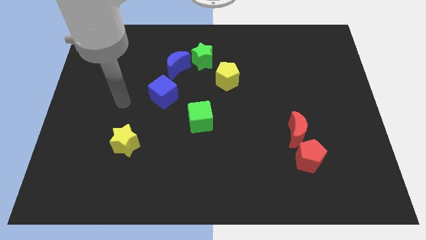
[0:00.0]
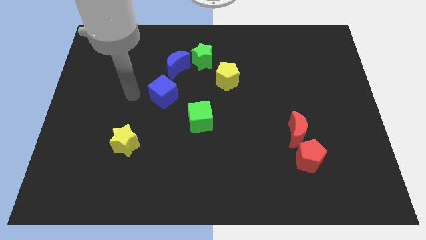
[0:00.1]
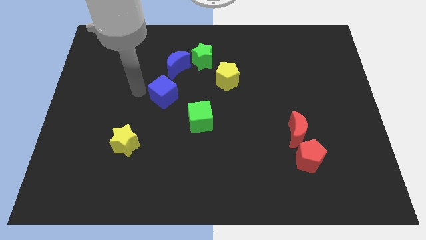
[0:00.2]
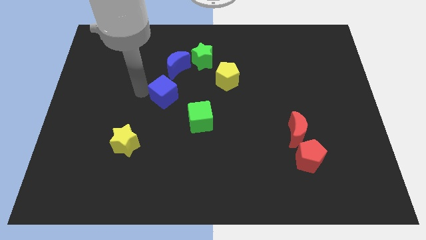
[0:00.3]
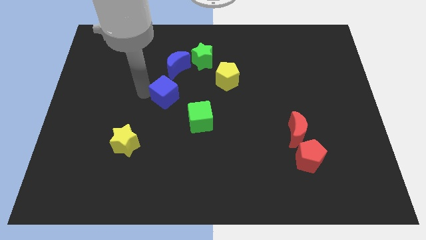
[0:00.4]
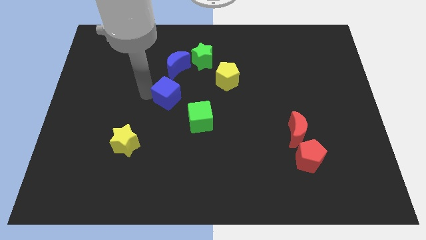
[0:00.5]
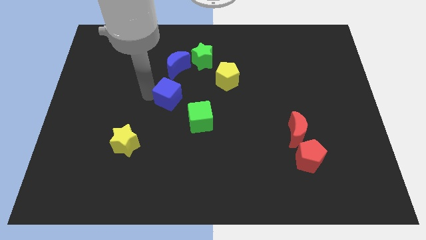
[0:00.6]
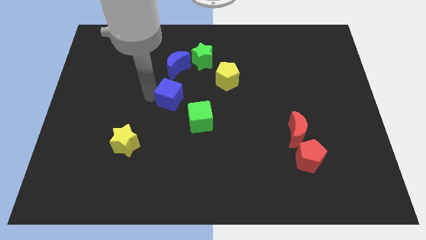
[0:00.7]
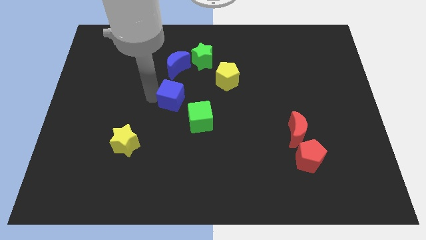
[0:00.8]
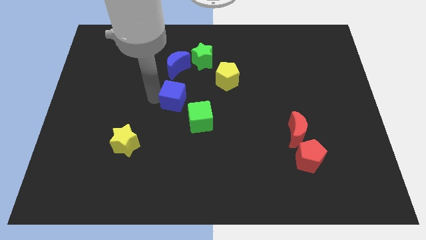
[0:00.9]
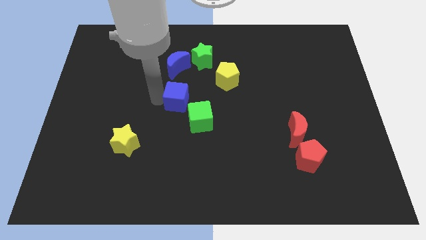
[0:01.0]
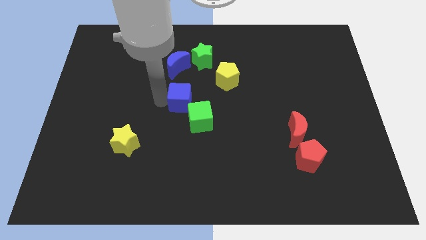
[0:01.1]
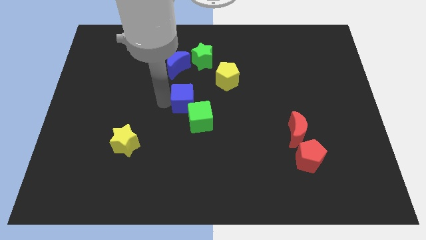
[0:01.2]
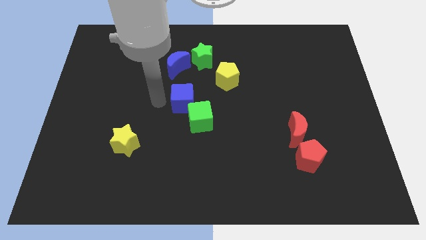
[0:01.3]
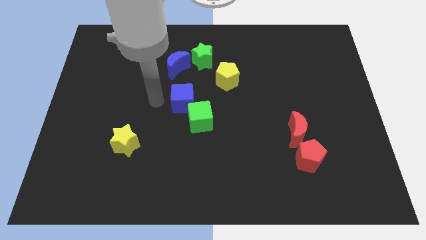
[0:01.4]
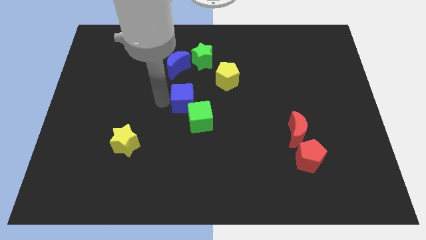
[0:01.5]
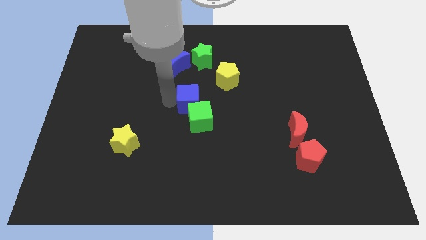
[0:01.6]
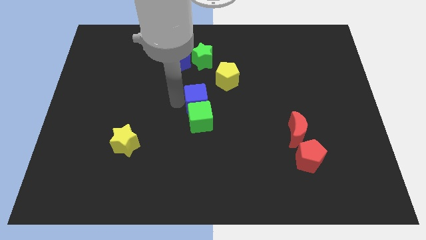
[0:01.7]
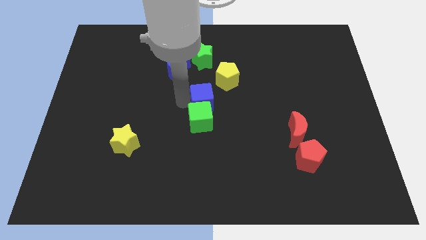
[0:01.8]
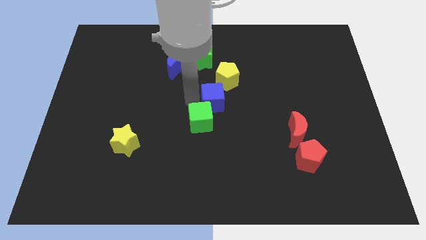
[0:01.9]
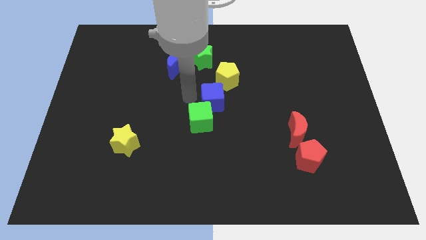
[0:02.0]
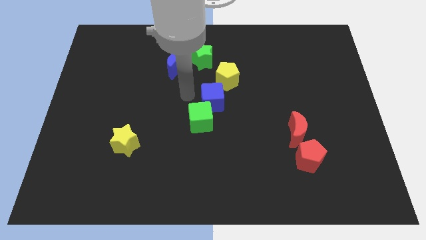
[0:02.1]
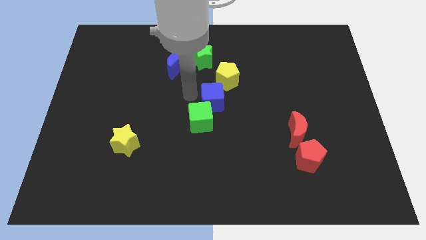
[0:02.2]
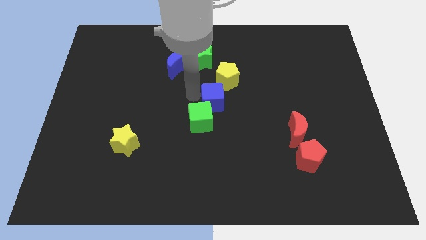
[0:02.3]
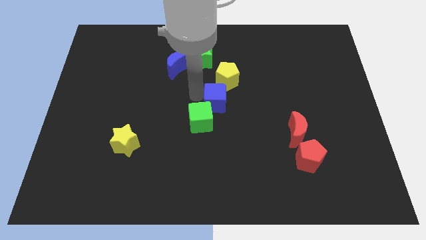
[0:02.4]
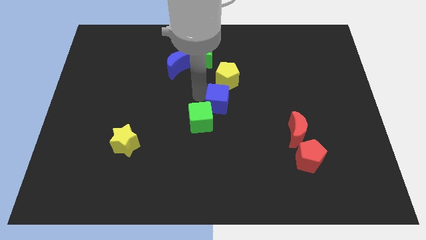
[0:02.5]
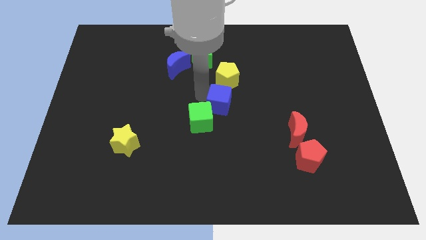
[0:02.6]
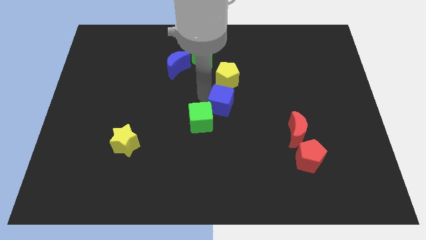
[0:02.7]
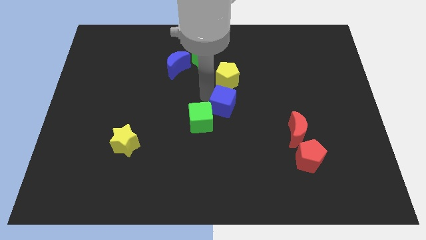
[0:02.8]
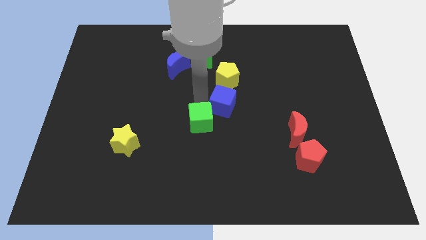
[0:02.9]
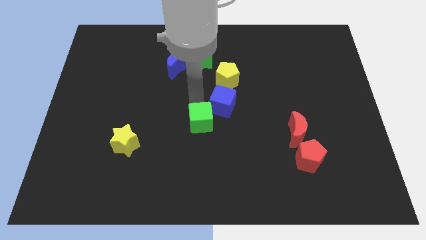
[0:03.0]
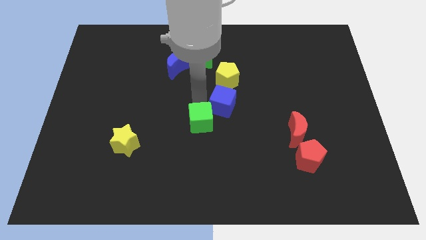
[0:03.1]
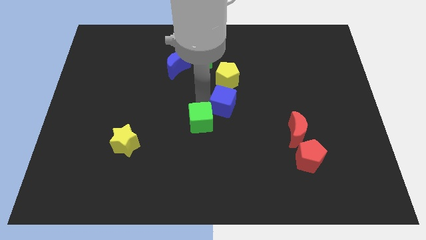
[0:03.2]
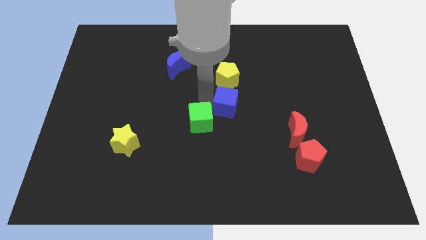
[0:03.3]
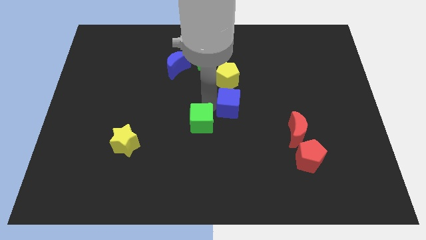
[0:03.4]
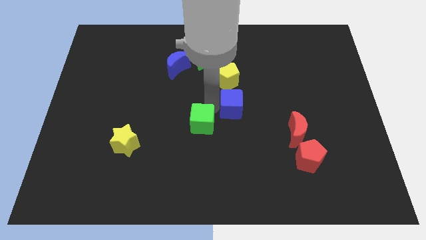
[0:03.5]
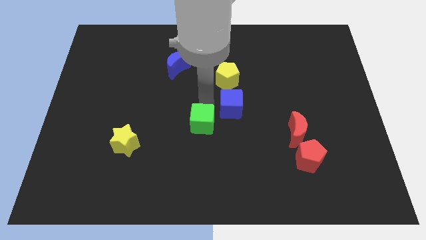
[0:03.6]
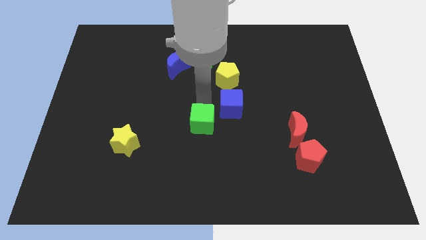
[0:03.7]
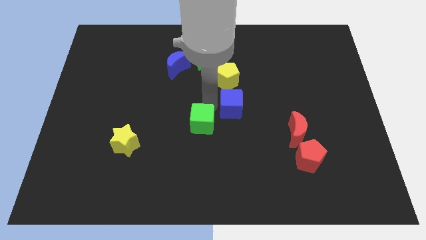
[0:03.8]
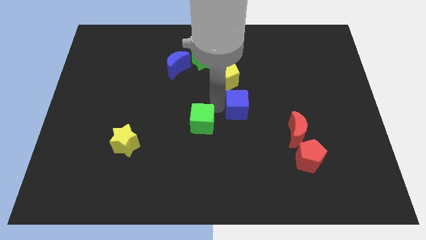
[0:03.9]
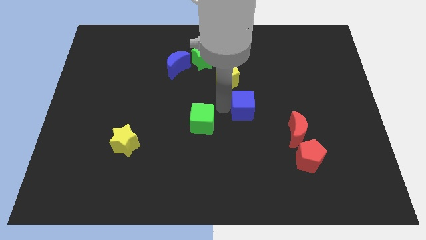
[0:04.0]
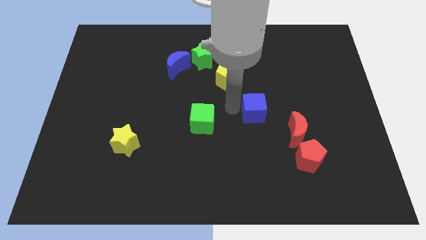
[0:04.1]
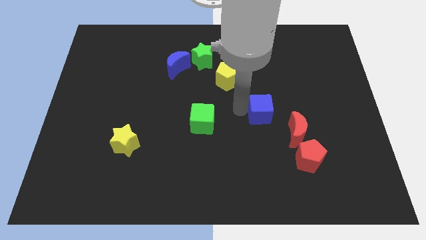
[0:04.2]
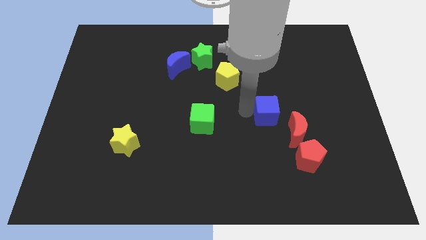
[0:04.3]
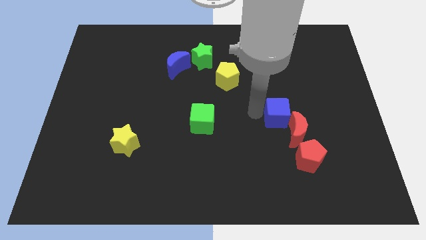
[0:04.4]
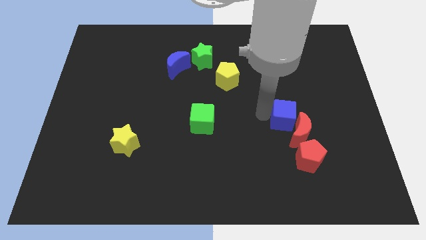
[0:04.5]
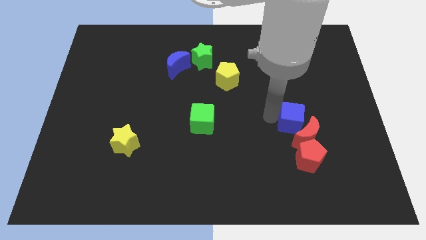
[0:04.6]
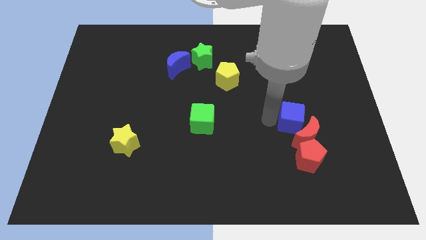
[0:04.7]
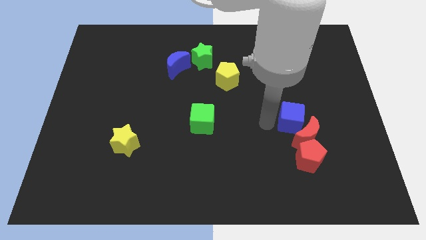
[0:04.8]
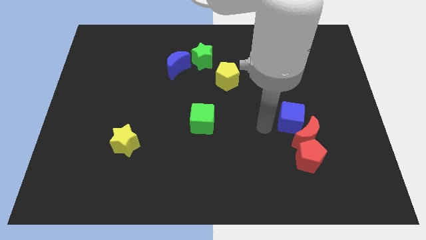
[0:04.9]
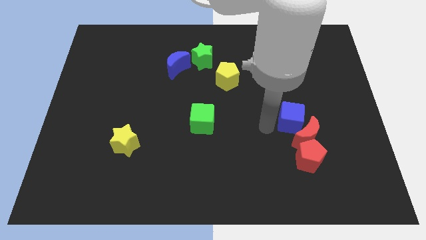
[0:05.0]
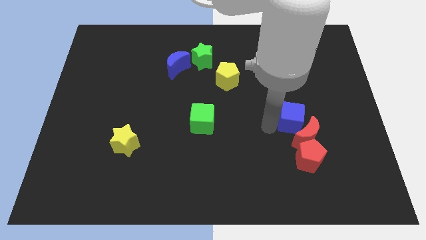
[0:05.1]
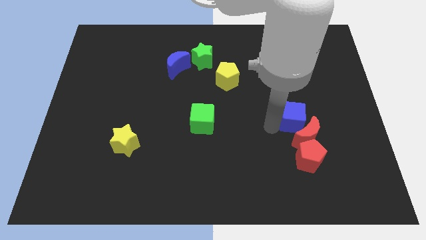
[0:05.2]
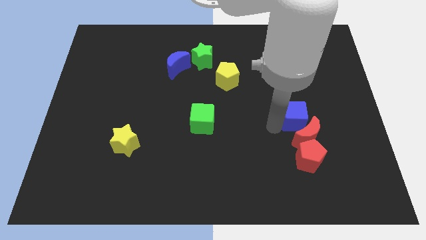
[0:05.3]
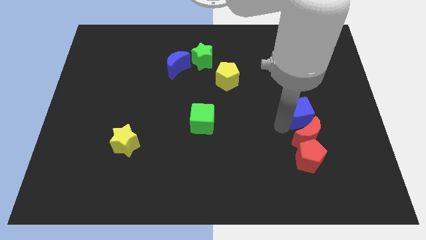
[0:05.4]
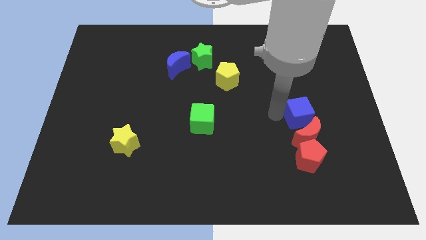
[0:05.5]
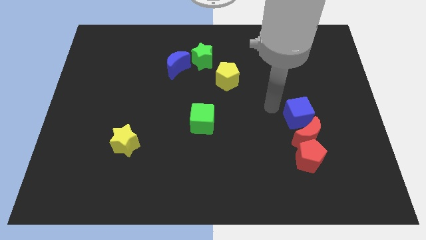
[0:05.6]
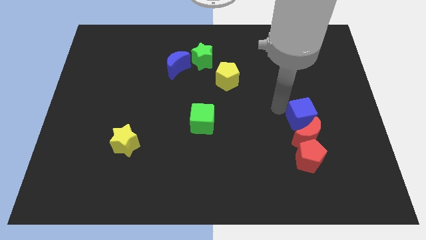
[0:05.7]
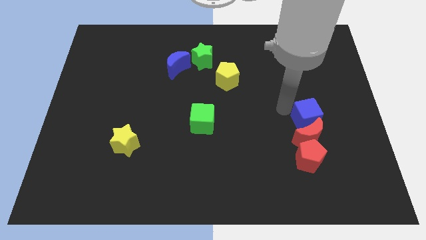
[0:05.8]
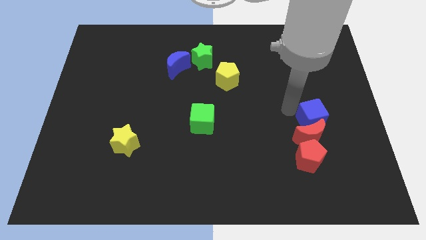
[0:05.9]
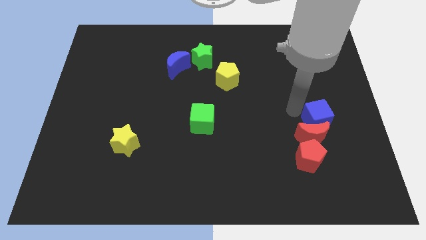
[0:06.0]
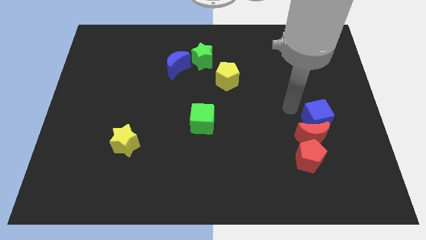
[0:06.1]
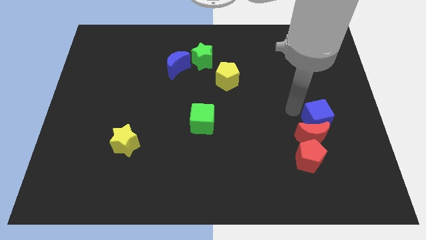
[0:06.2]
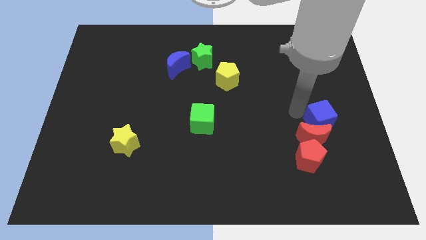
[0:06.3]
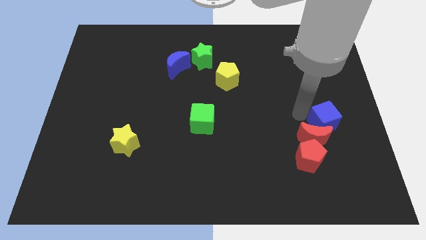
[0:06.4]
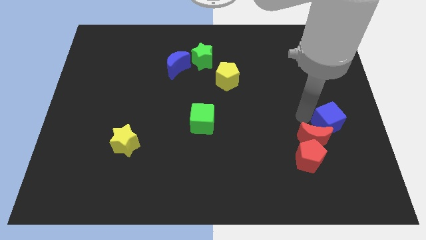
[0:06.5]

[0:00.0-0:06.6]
move the blue cube just right of the red moon

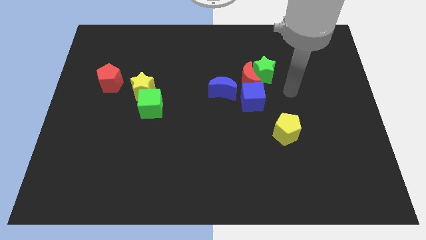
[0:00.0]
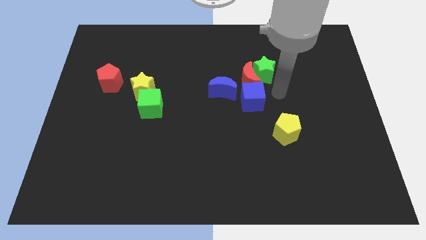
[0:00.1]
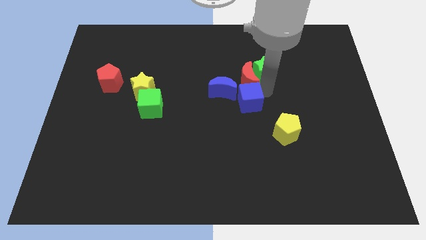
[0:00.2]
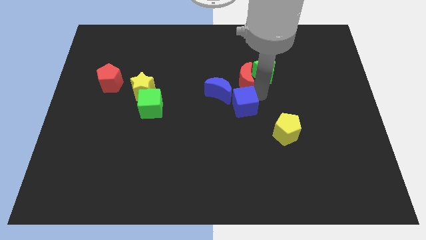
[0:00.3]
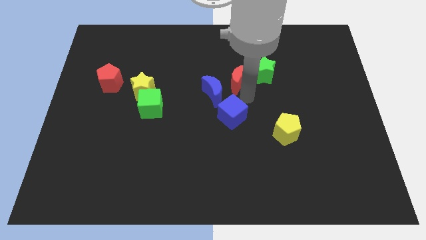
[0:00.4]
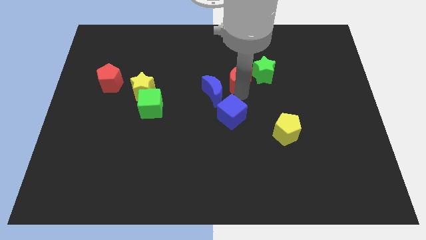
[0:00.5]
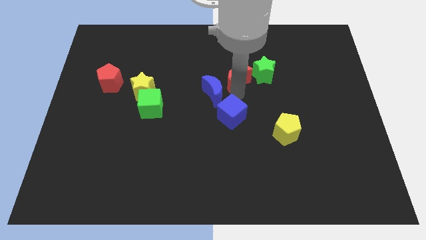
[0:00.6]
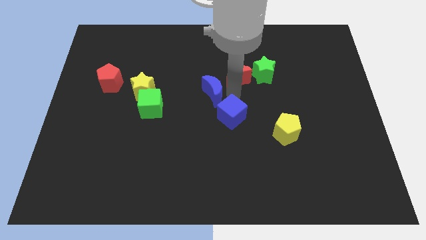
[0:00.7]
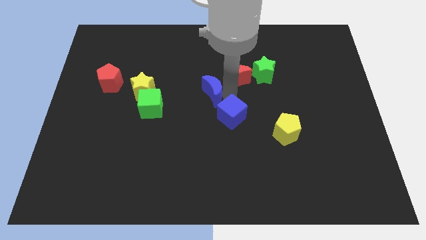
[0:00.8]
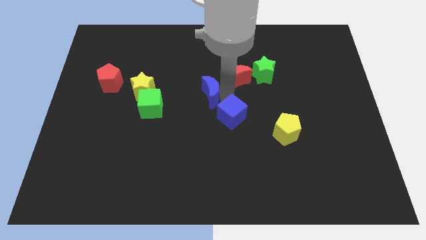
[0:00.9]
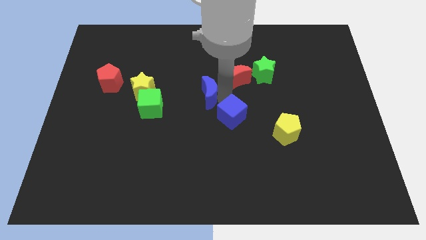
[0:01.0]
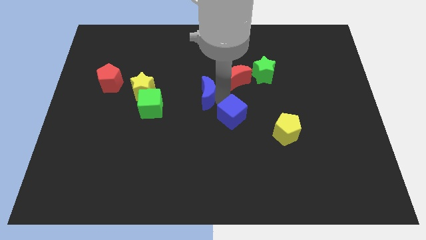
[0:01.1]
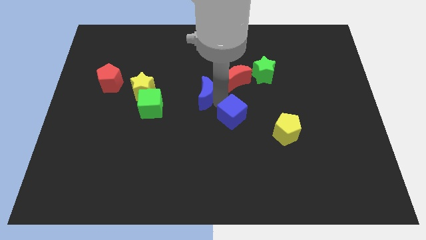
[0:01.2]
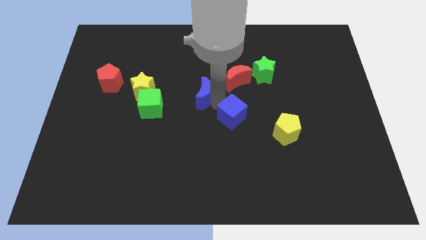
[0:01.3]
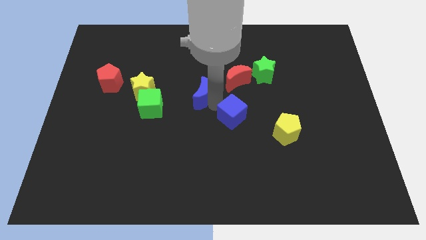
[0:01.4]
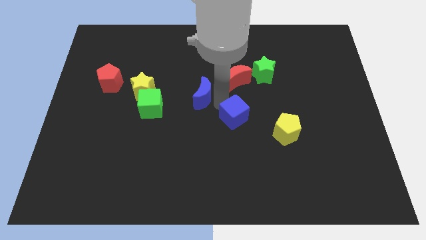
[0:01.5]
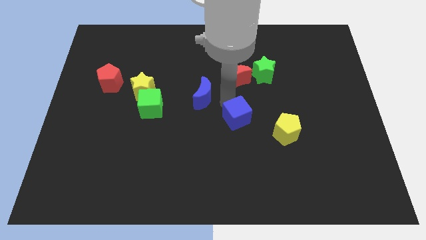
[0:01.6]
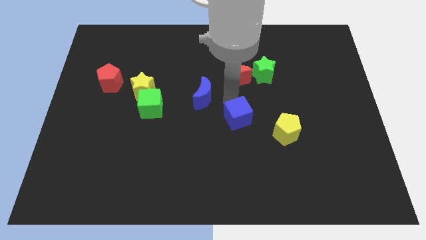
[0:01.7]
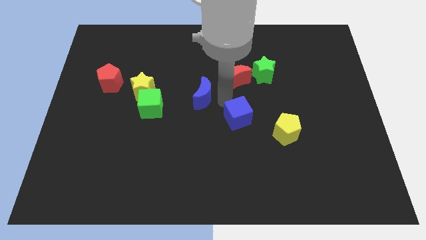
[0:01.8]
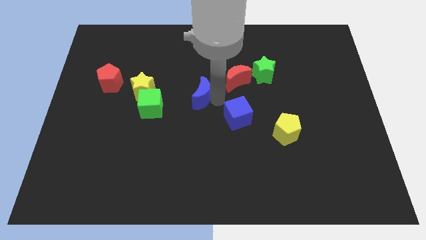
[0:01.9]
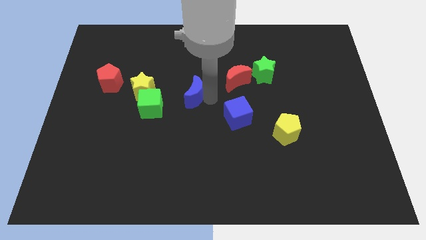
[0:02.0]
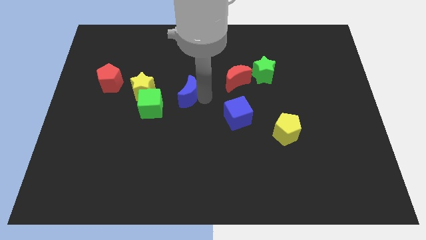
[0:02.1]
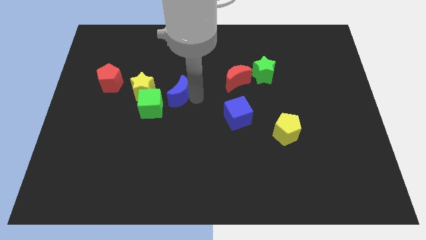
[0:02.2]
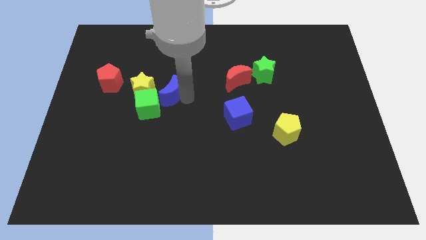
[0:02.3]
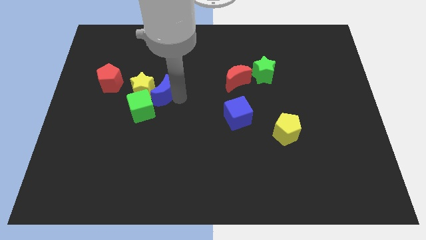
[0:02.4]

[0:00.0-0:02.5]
slide the blue moon to the right of the red pentagon
